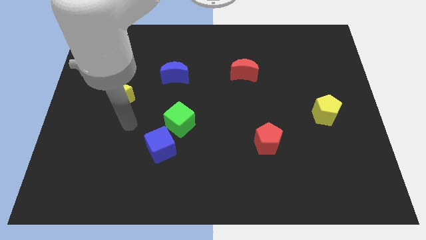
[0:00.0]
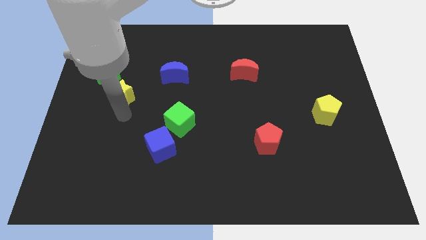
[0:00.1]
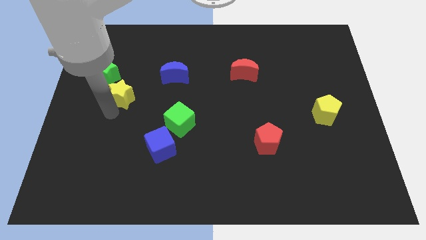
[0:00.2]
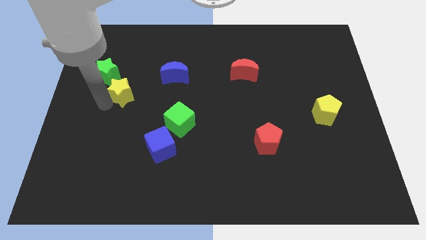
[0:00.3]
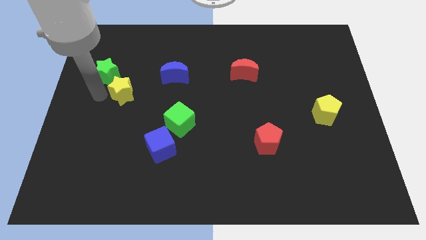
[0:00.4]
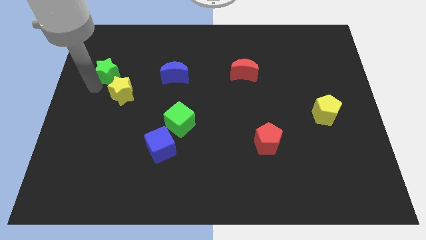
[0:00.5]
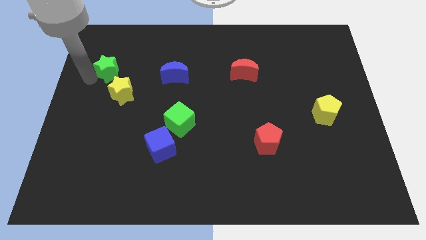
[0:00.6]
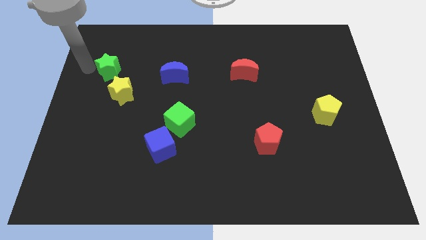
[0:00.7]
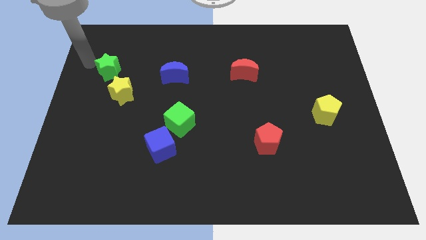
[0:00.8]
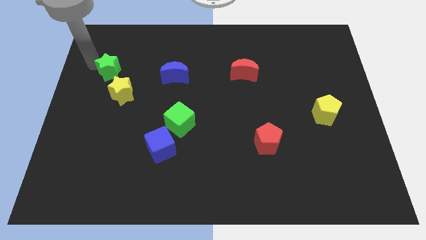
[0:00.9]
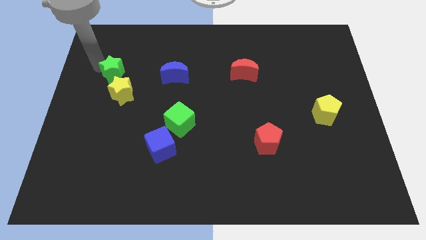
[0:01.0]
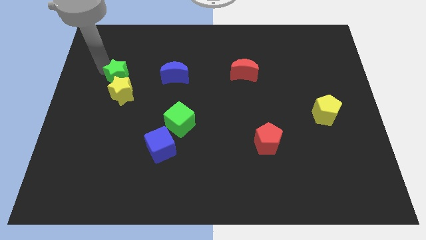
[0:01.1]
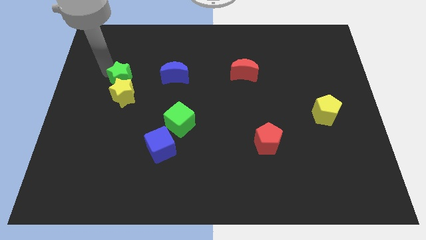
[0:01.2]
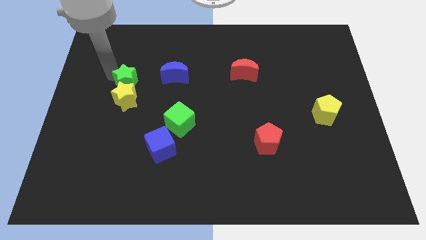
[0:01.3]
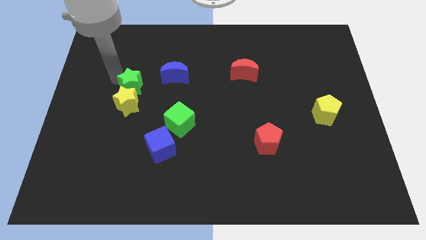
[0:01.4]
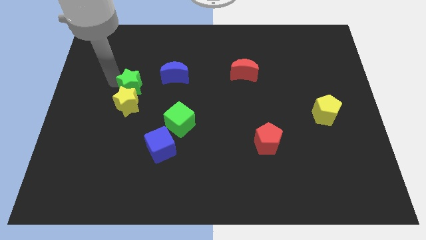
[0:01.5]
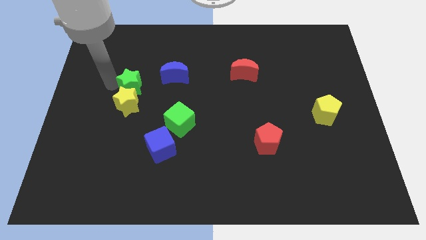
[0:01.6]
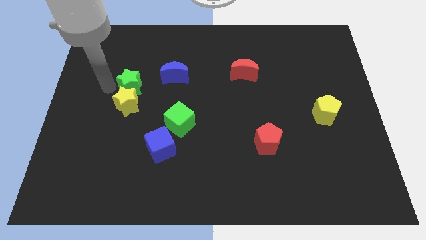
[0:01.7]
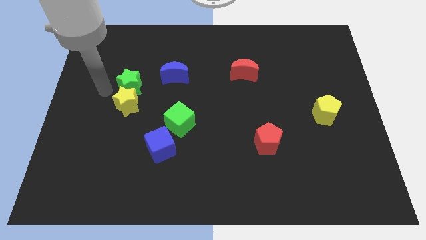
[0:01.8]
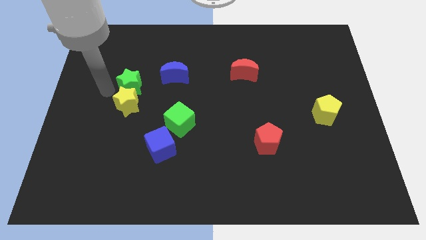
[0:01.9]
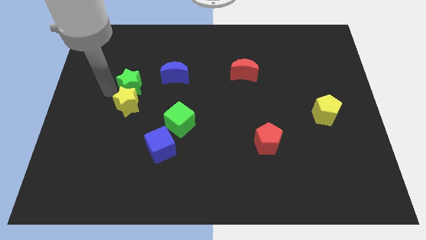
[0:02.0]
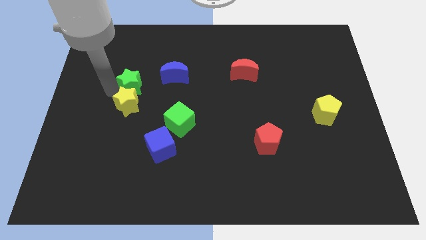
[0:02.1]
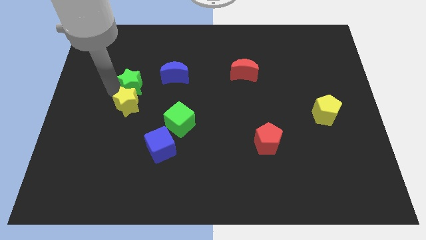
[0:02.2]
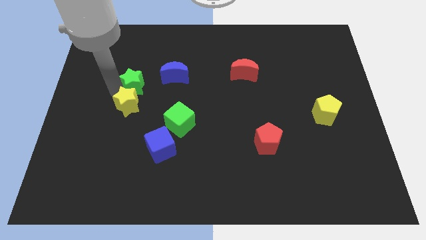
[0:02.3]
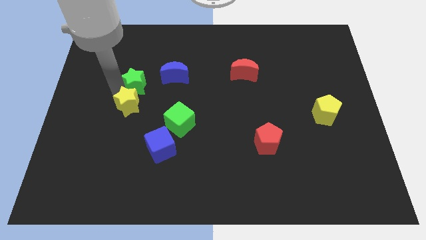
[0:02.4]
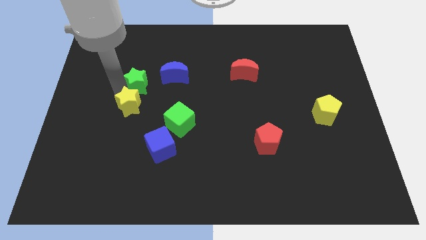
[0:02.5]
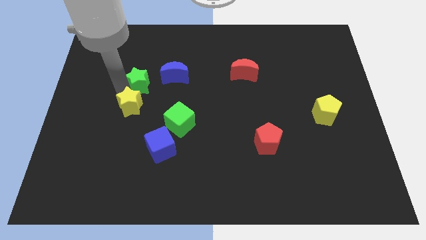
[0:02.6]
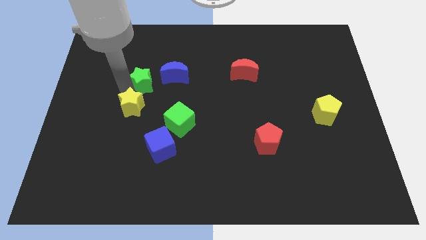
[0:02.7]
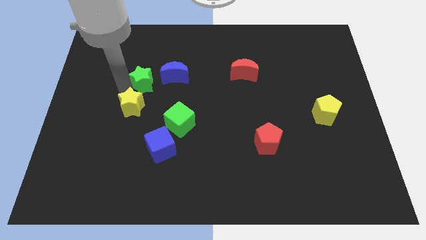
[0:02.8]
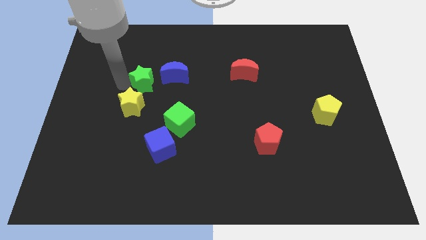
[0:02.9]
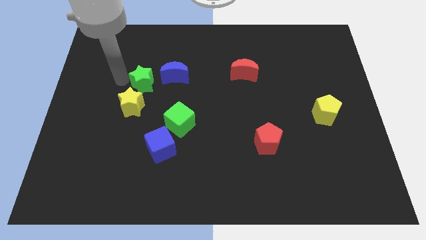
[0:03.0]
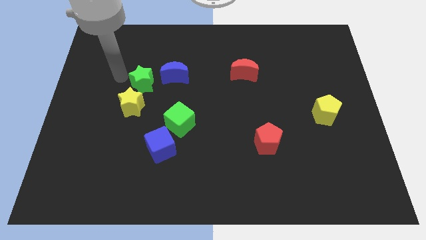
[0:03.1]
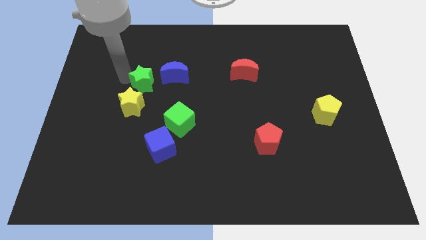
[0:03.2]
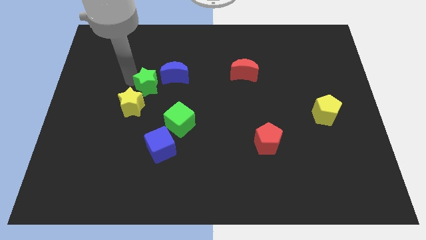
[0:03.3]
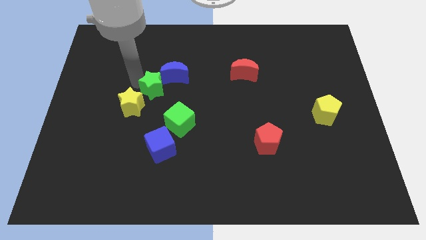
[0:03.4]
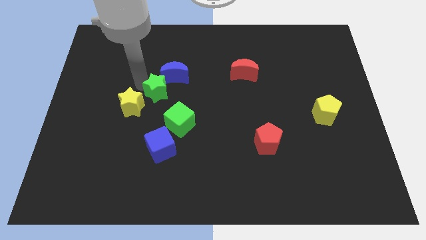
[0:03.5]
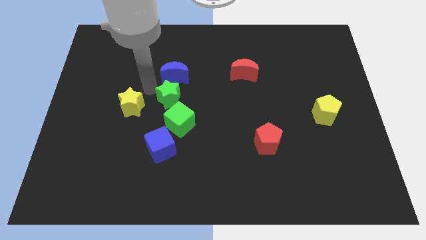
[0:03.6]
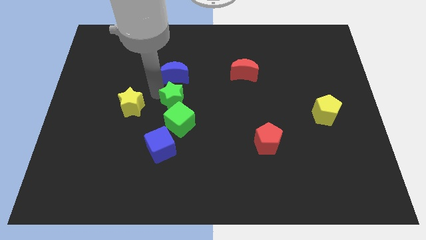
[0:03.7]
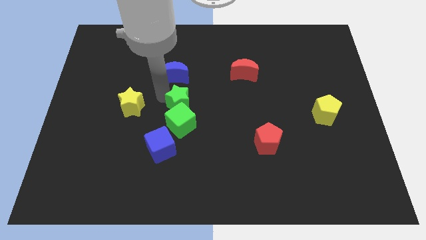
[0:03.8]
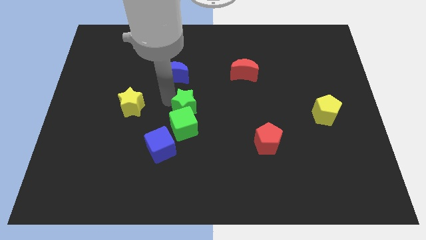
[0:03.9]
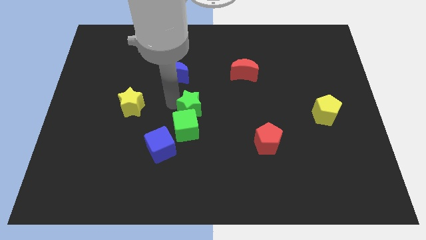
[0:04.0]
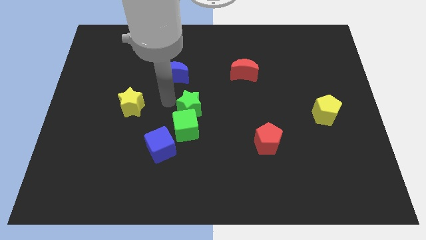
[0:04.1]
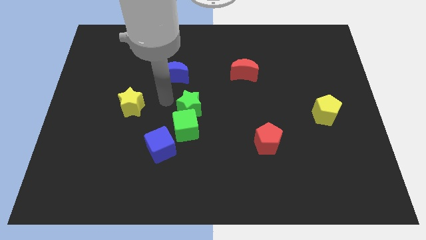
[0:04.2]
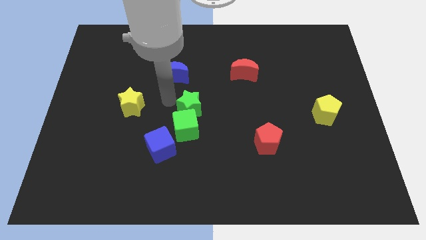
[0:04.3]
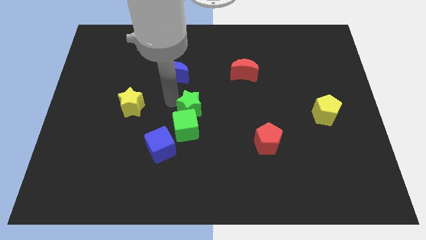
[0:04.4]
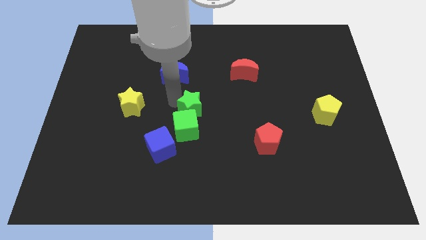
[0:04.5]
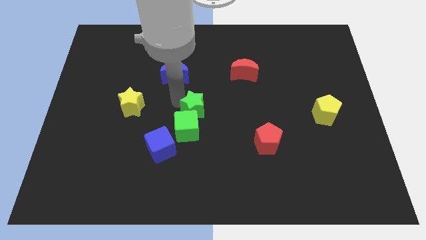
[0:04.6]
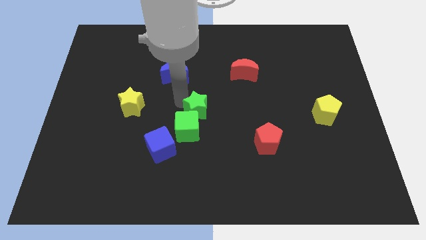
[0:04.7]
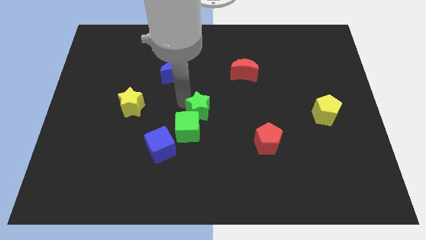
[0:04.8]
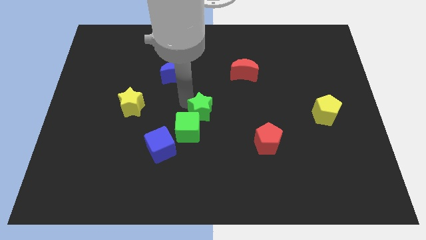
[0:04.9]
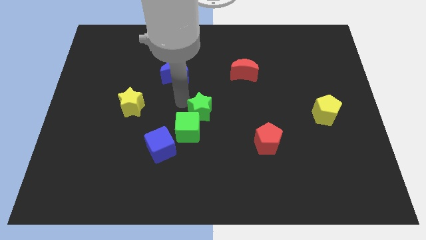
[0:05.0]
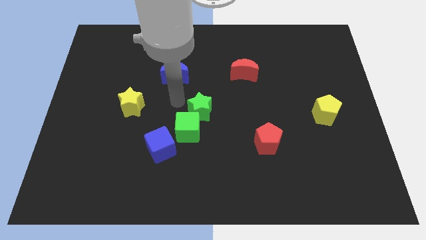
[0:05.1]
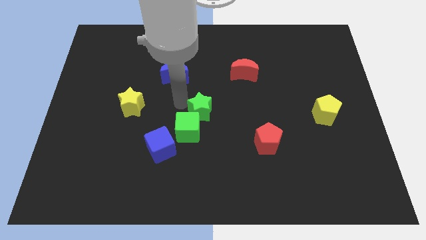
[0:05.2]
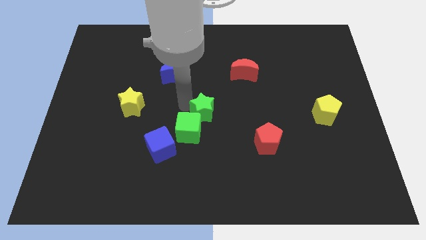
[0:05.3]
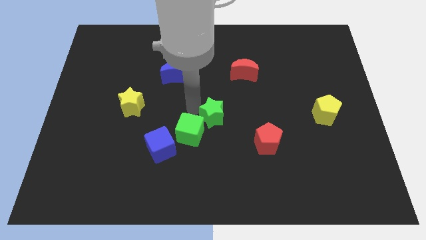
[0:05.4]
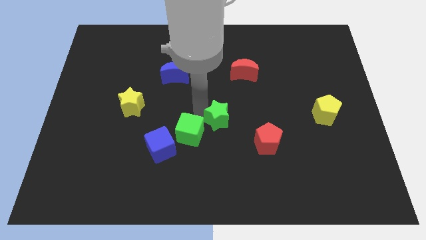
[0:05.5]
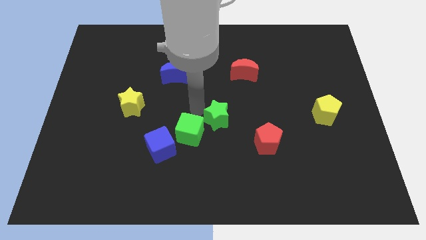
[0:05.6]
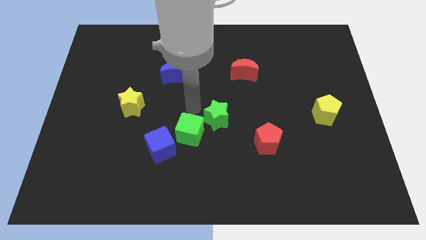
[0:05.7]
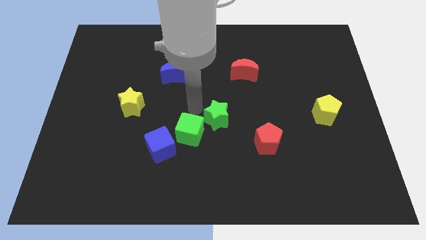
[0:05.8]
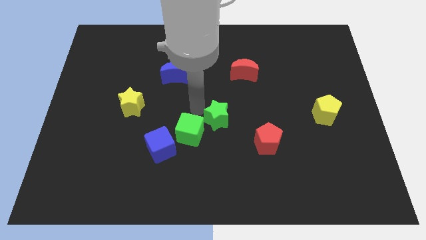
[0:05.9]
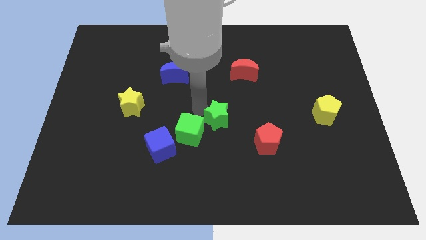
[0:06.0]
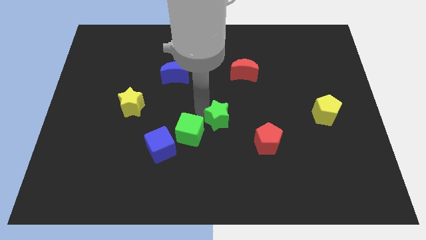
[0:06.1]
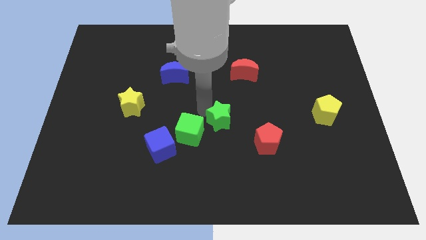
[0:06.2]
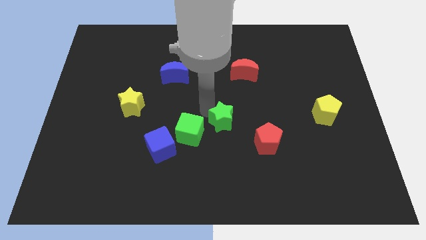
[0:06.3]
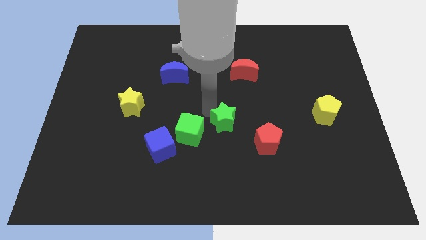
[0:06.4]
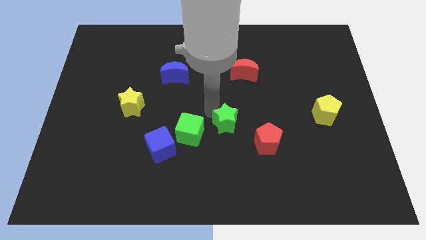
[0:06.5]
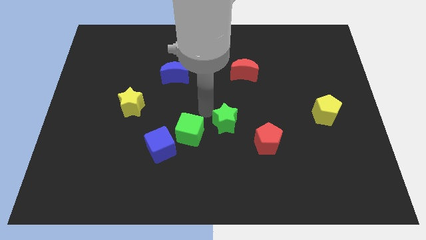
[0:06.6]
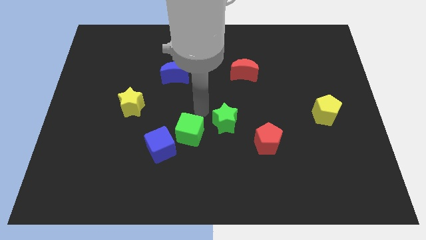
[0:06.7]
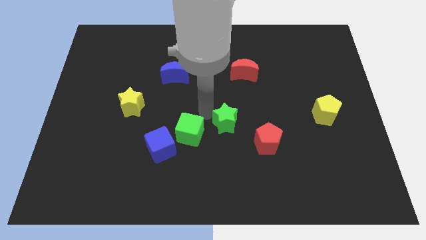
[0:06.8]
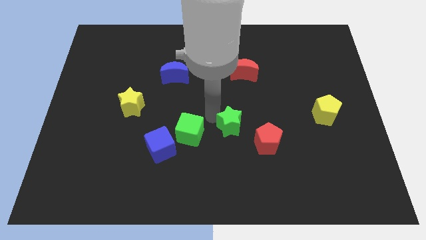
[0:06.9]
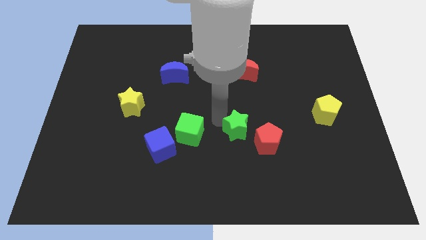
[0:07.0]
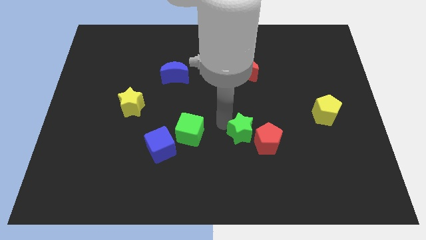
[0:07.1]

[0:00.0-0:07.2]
move the green star to the red pentagon

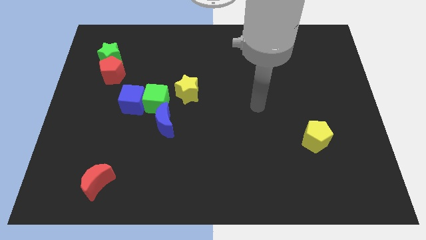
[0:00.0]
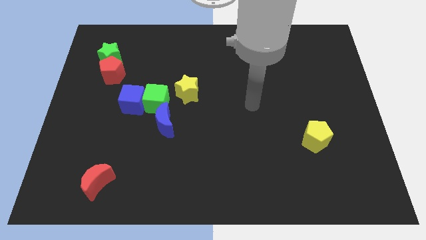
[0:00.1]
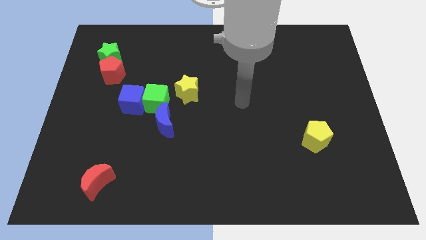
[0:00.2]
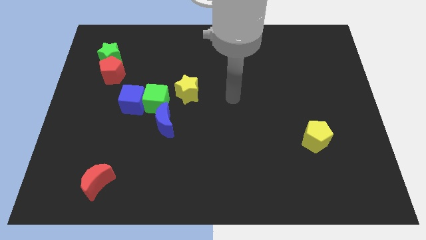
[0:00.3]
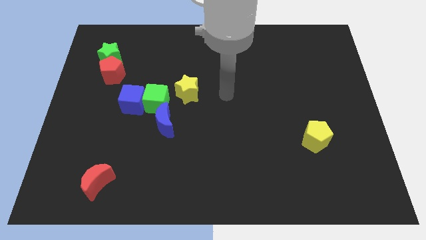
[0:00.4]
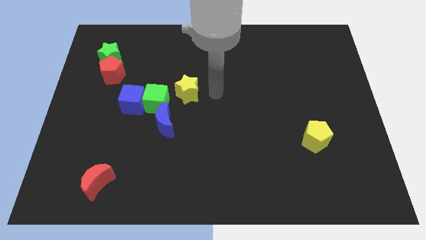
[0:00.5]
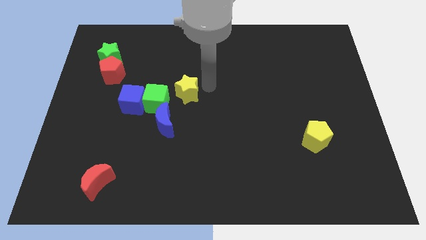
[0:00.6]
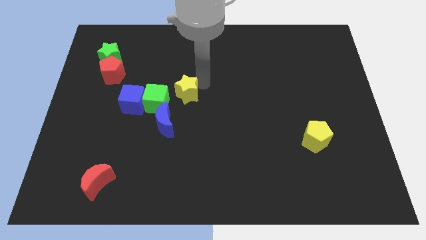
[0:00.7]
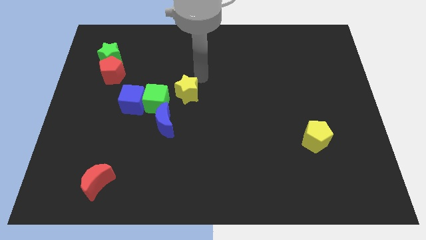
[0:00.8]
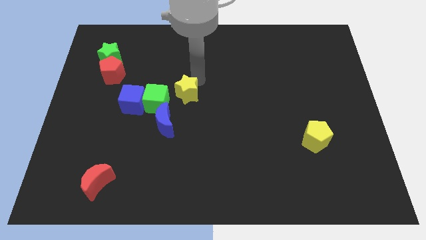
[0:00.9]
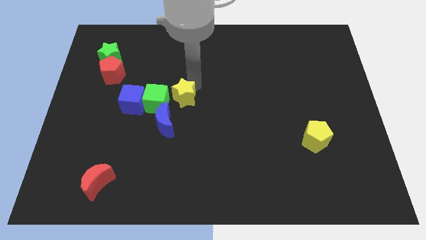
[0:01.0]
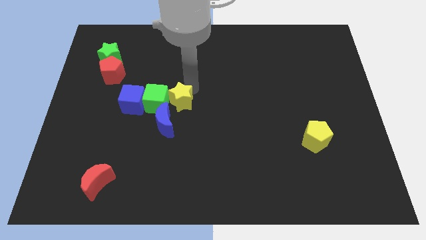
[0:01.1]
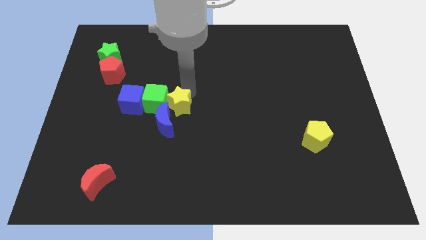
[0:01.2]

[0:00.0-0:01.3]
put the yellow star close to the blue moon
